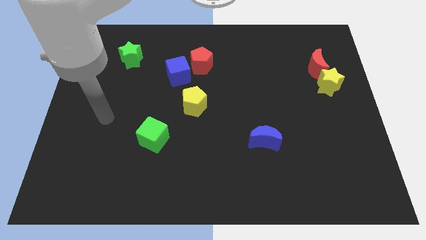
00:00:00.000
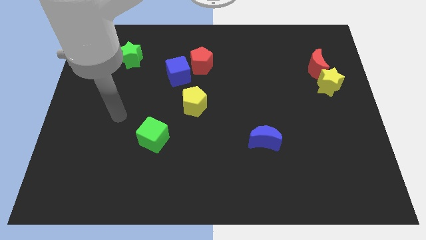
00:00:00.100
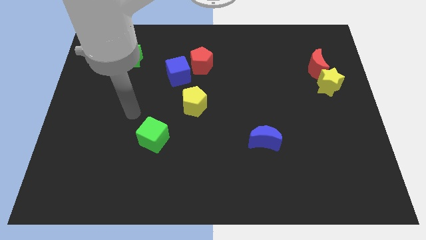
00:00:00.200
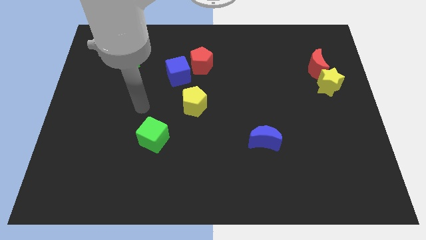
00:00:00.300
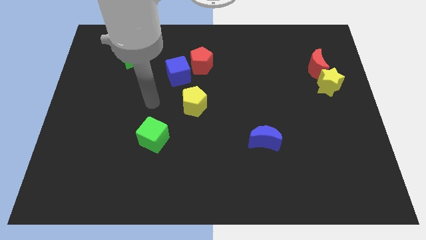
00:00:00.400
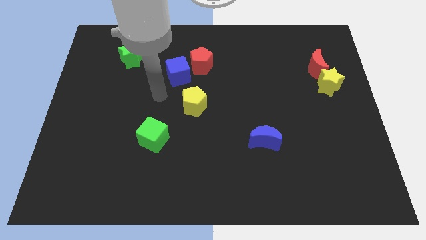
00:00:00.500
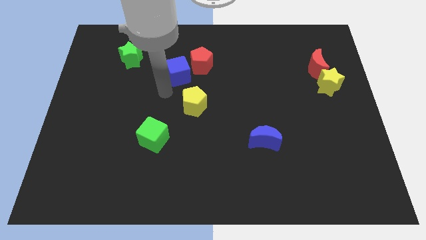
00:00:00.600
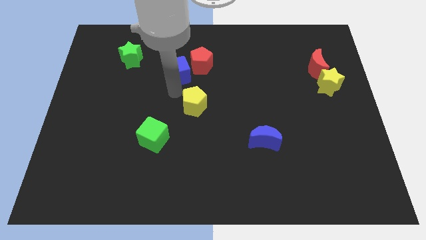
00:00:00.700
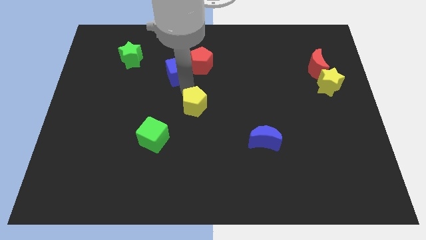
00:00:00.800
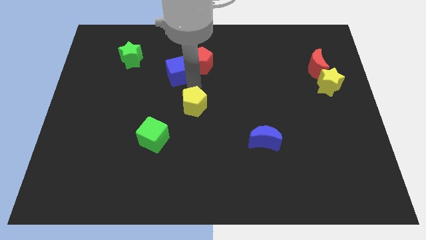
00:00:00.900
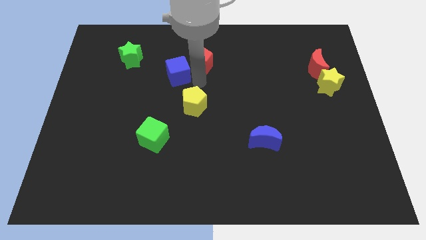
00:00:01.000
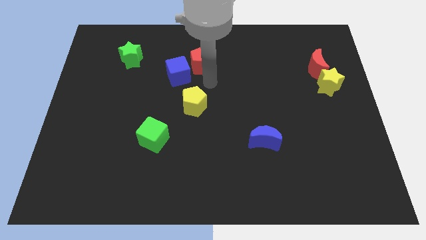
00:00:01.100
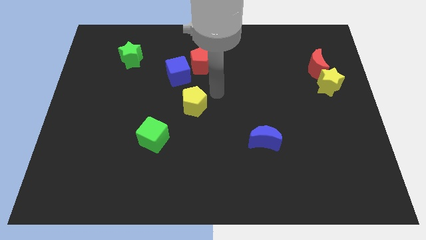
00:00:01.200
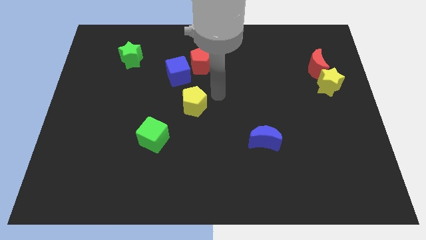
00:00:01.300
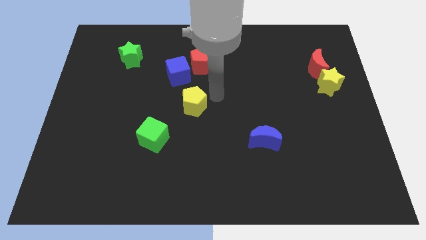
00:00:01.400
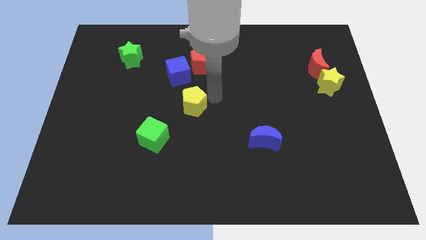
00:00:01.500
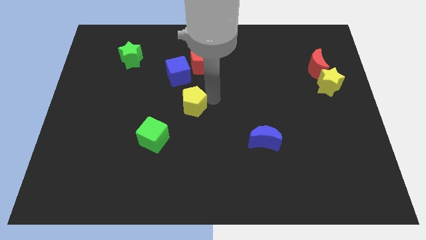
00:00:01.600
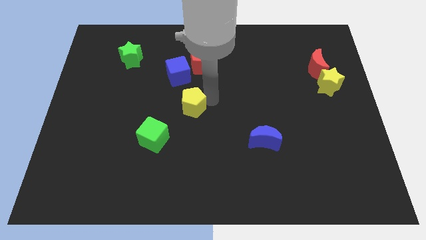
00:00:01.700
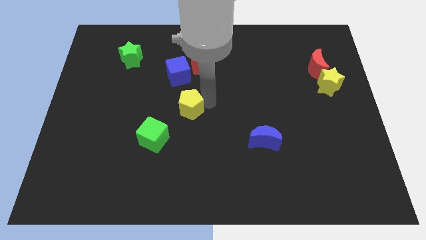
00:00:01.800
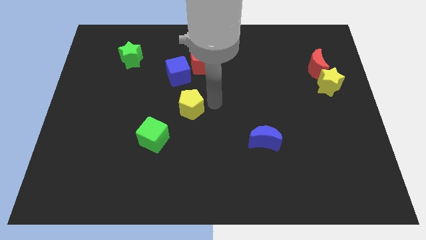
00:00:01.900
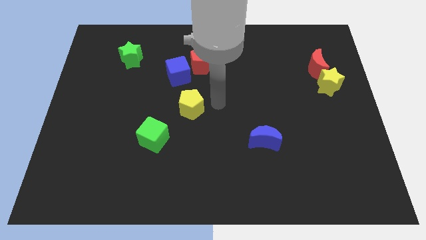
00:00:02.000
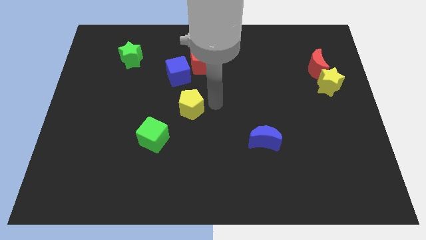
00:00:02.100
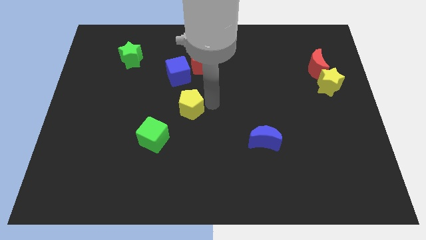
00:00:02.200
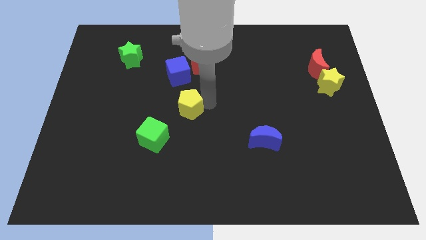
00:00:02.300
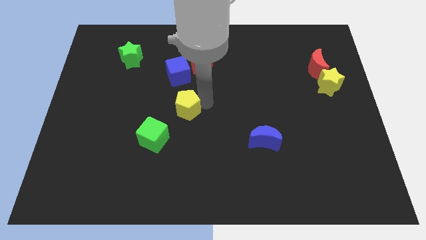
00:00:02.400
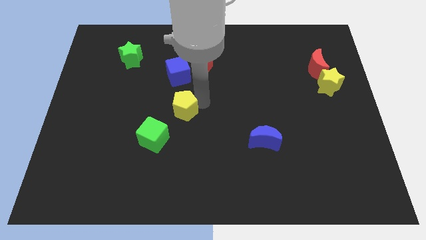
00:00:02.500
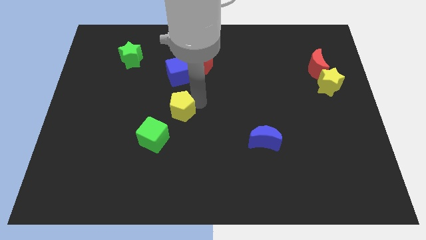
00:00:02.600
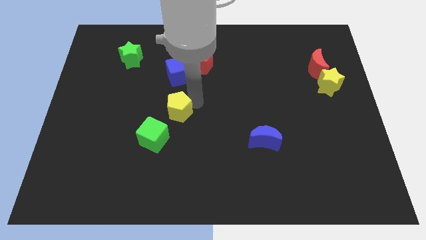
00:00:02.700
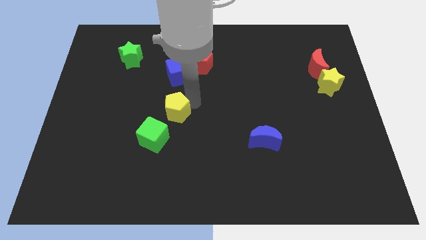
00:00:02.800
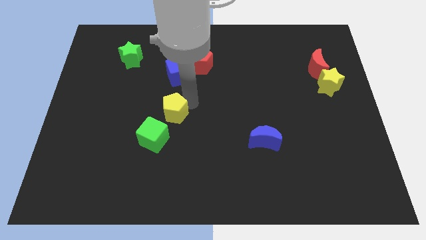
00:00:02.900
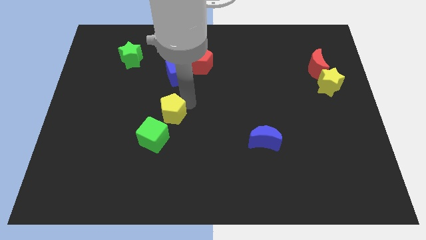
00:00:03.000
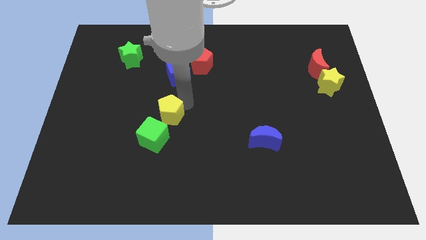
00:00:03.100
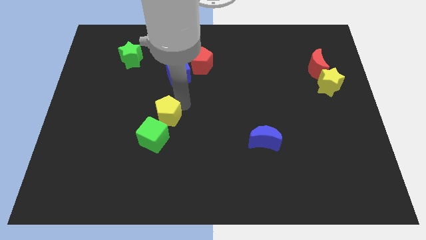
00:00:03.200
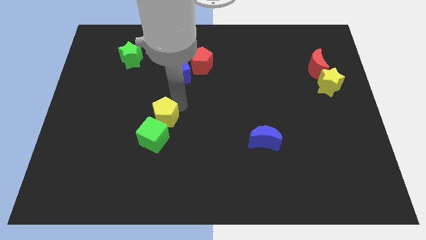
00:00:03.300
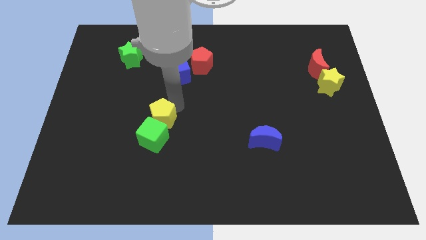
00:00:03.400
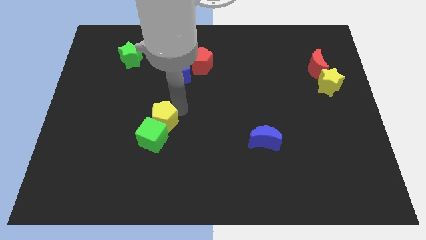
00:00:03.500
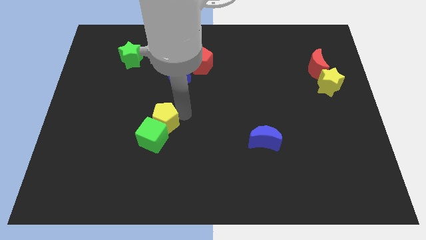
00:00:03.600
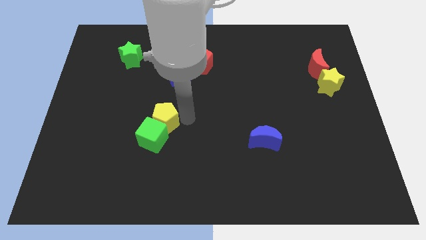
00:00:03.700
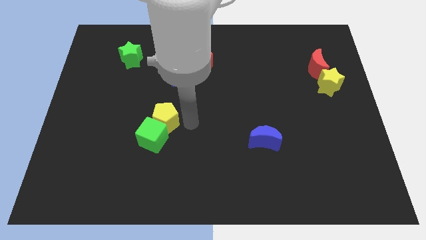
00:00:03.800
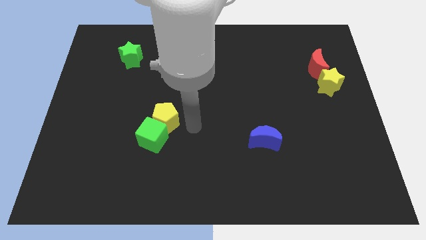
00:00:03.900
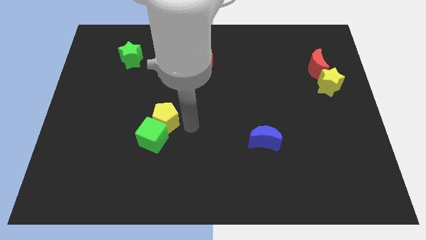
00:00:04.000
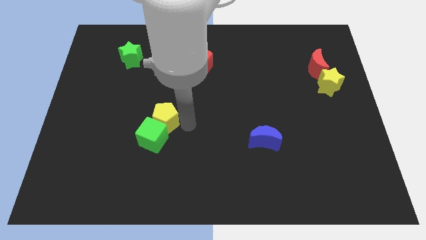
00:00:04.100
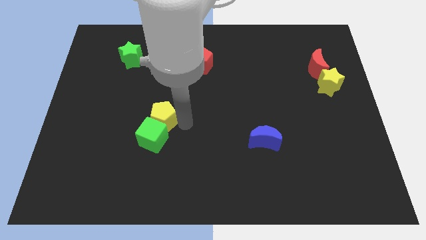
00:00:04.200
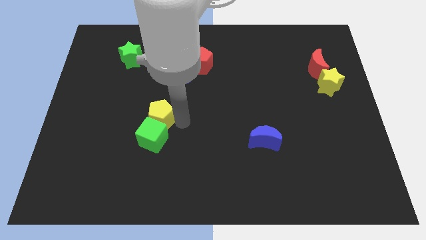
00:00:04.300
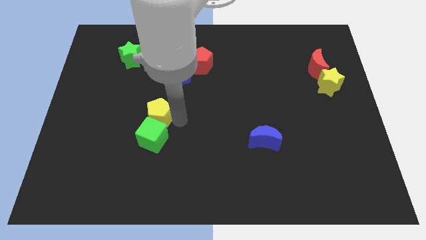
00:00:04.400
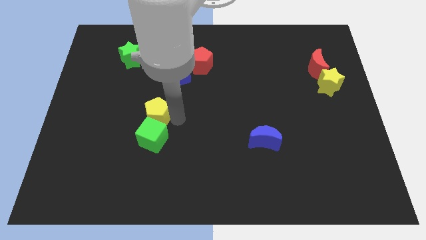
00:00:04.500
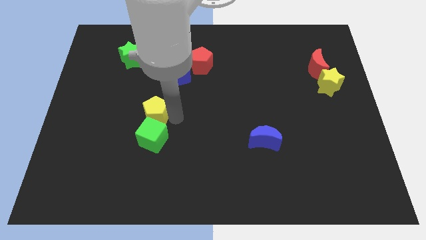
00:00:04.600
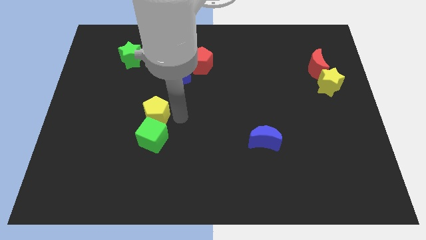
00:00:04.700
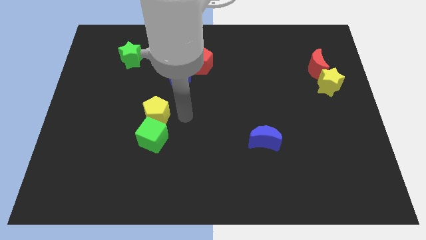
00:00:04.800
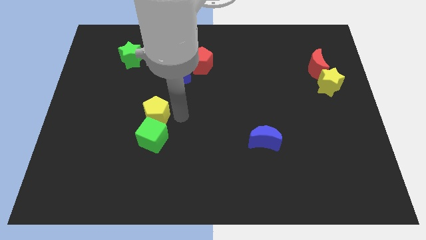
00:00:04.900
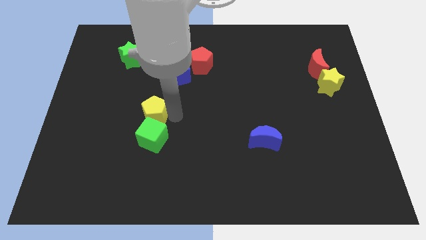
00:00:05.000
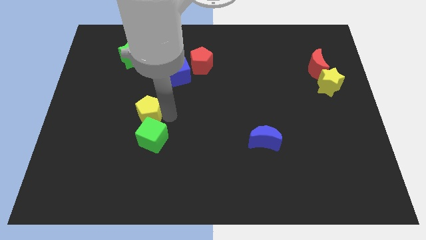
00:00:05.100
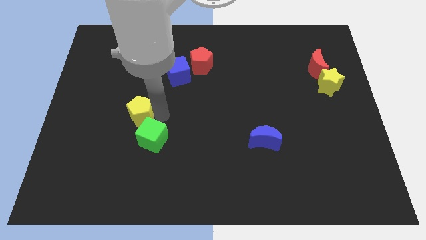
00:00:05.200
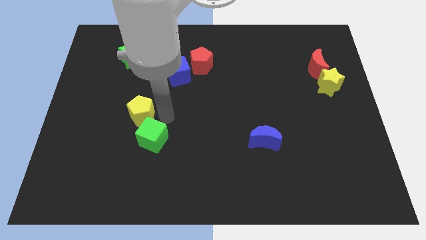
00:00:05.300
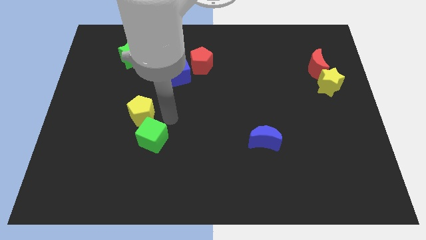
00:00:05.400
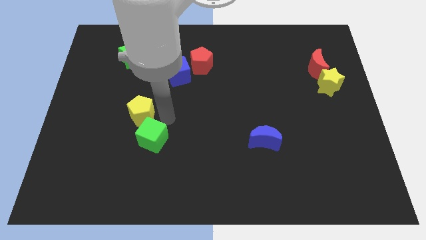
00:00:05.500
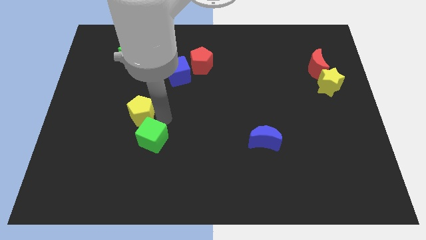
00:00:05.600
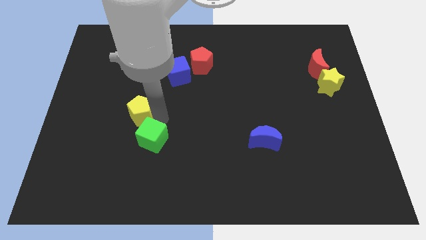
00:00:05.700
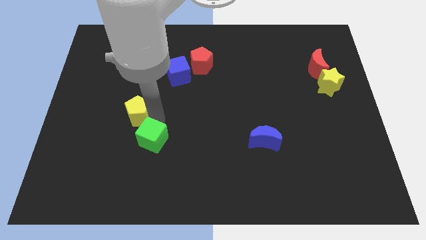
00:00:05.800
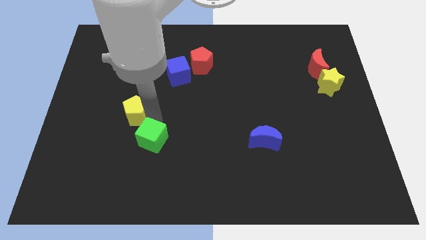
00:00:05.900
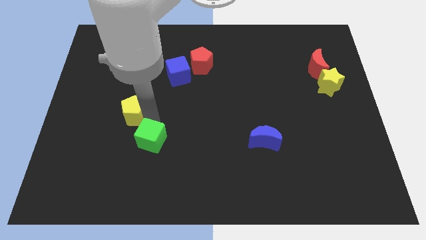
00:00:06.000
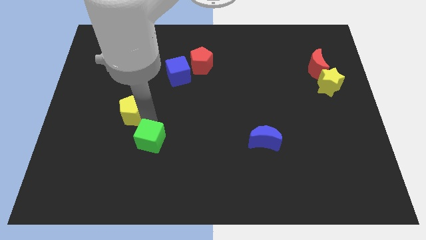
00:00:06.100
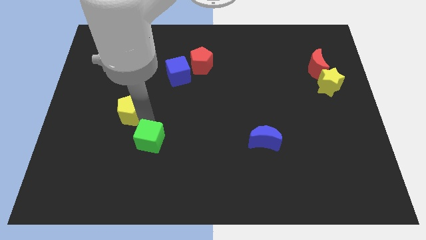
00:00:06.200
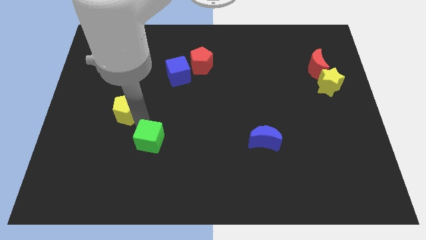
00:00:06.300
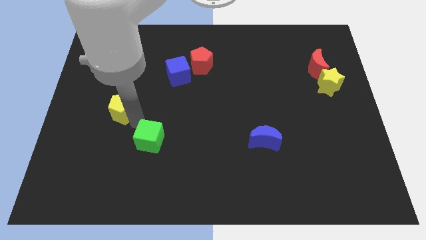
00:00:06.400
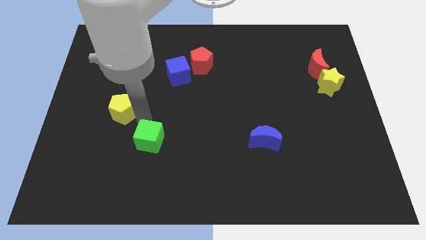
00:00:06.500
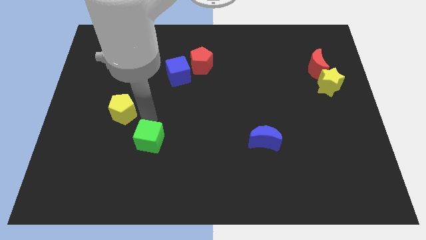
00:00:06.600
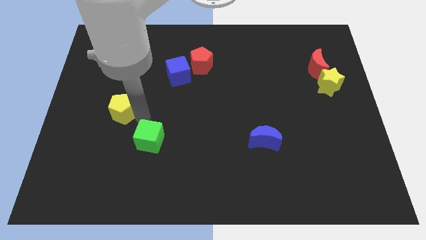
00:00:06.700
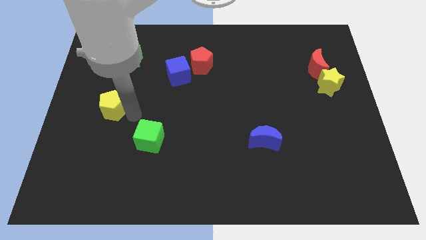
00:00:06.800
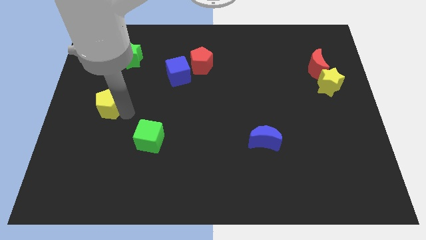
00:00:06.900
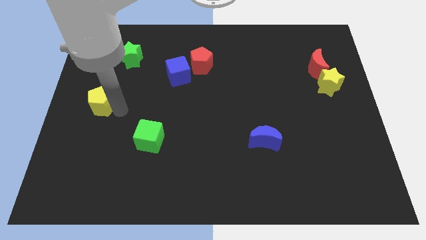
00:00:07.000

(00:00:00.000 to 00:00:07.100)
move the yellow pentagon to the center left
